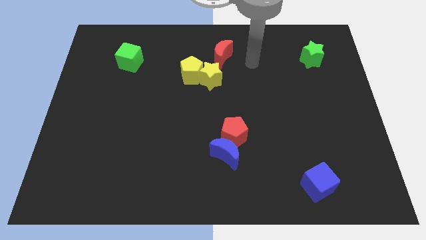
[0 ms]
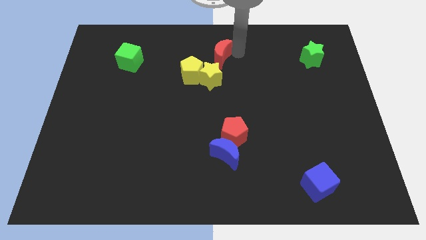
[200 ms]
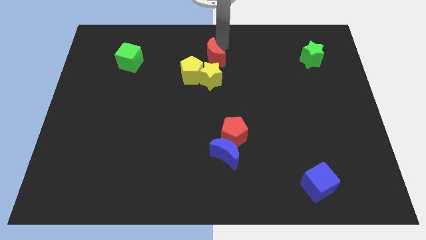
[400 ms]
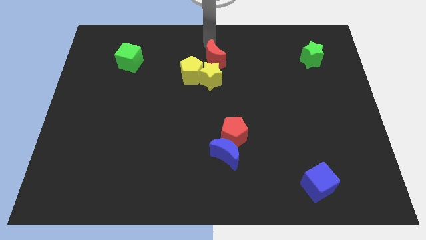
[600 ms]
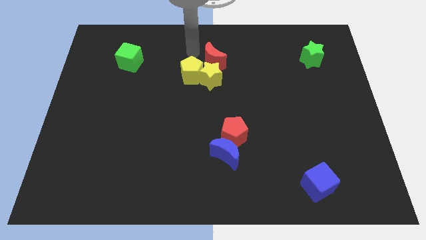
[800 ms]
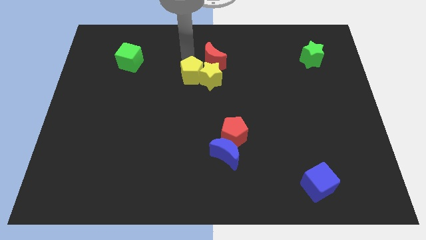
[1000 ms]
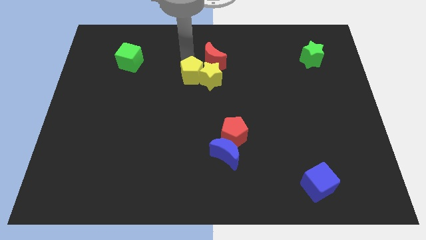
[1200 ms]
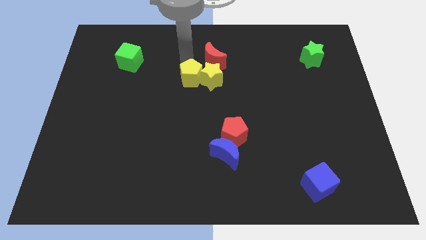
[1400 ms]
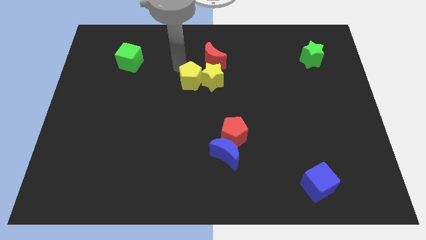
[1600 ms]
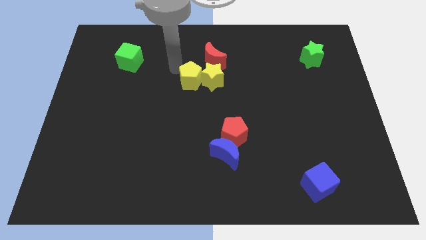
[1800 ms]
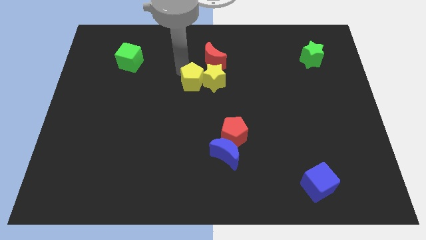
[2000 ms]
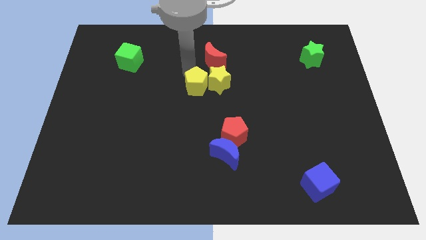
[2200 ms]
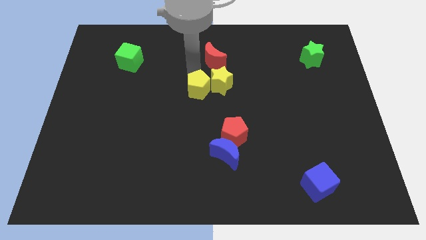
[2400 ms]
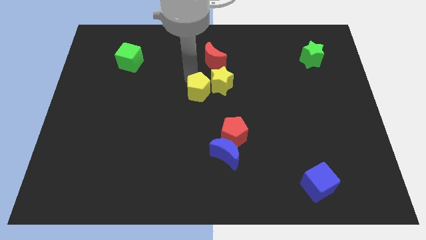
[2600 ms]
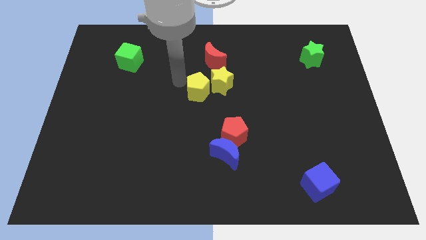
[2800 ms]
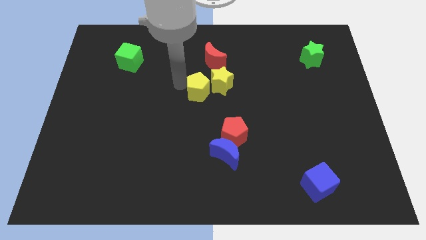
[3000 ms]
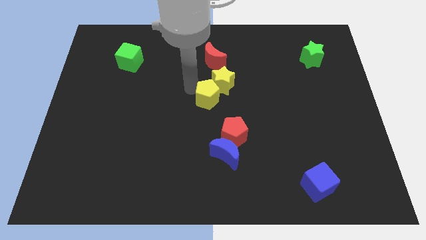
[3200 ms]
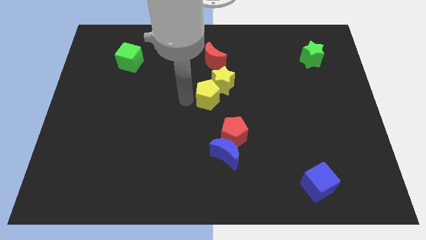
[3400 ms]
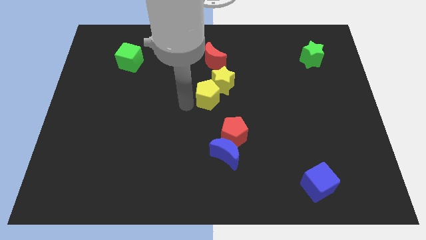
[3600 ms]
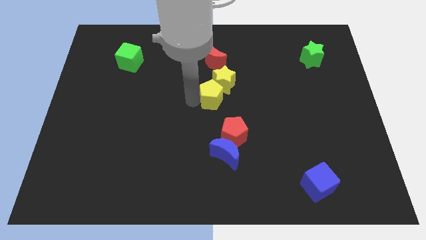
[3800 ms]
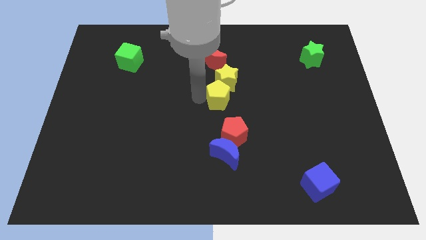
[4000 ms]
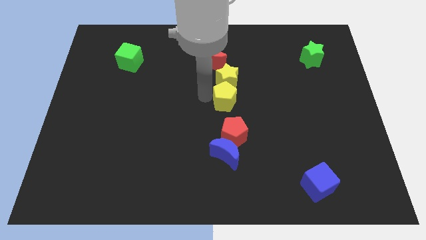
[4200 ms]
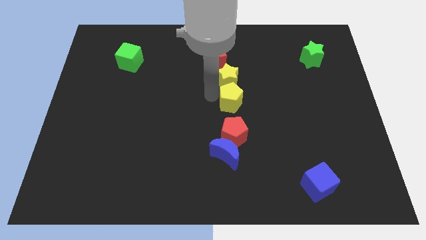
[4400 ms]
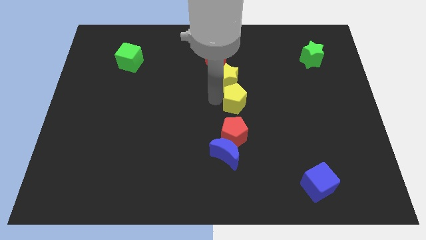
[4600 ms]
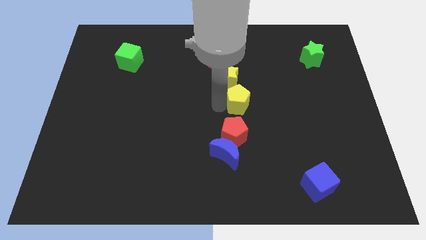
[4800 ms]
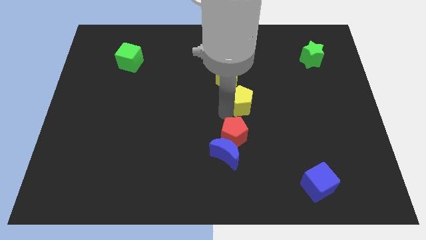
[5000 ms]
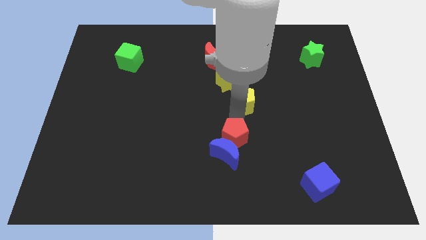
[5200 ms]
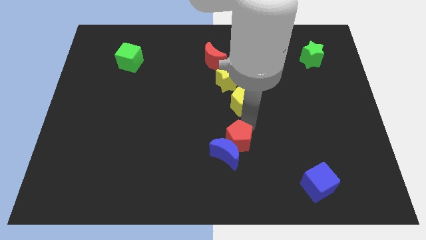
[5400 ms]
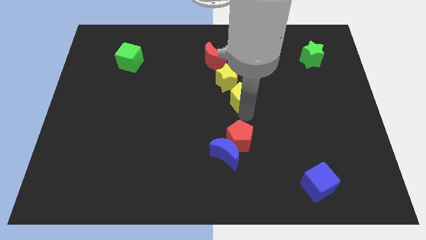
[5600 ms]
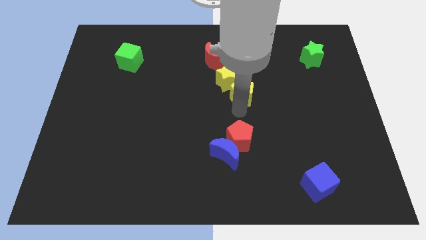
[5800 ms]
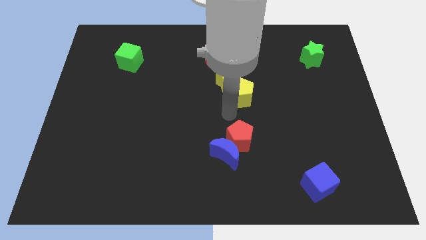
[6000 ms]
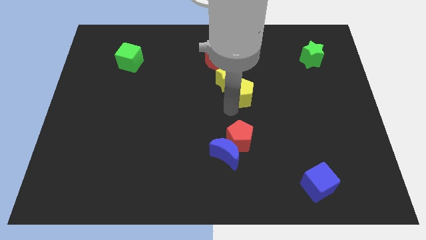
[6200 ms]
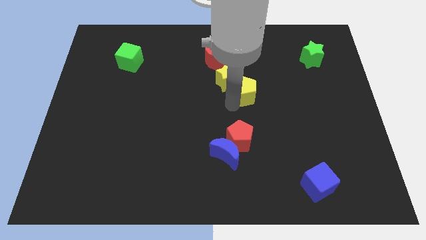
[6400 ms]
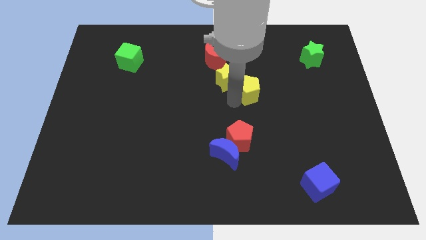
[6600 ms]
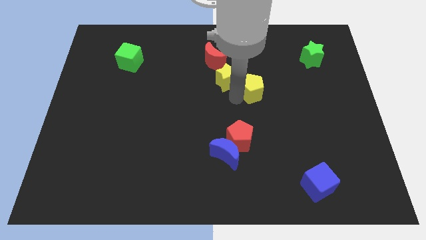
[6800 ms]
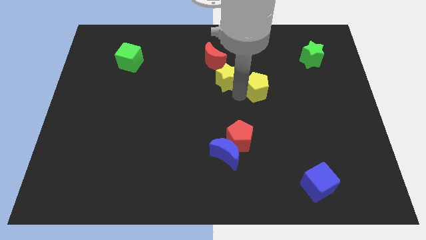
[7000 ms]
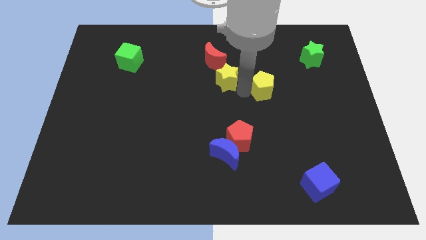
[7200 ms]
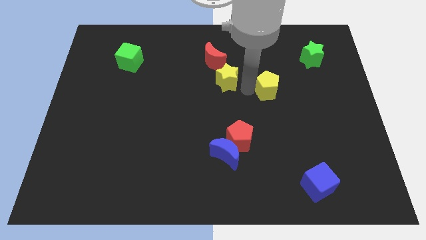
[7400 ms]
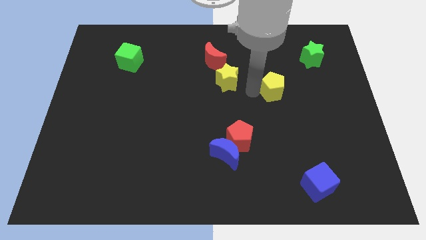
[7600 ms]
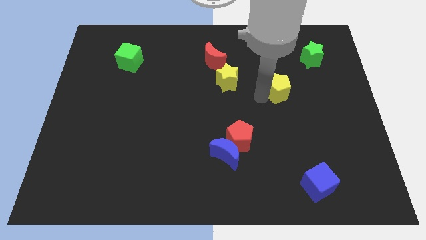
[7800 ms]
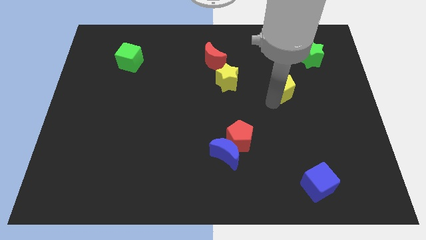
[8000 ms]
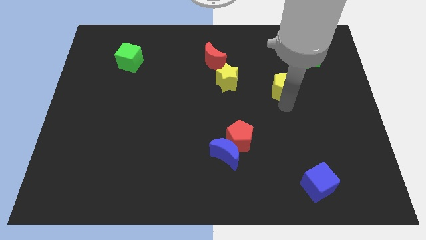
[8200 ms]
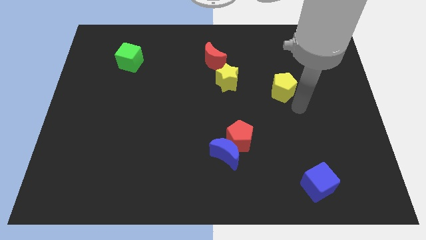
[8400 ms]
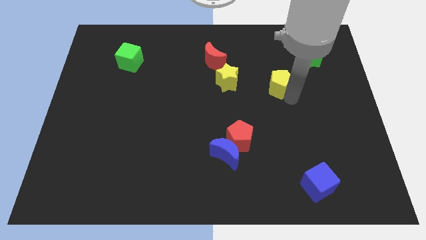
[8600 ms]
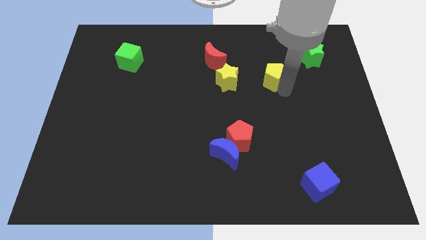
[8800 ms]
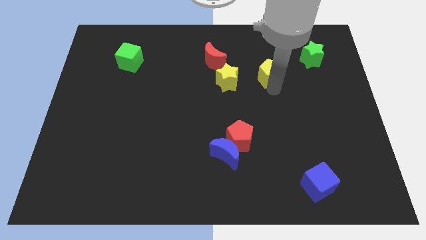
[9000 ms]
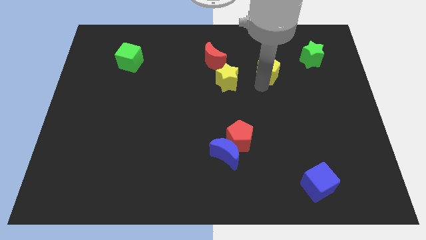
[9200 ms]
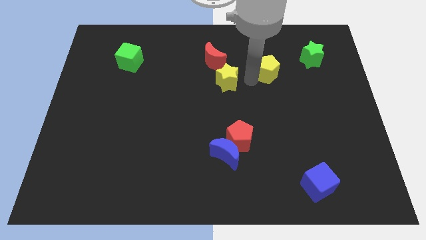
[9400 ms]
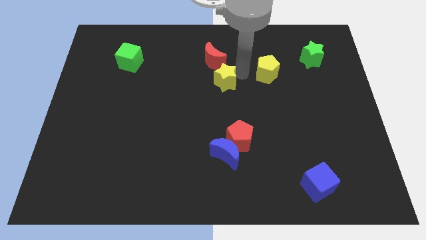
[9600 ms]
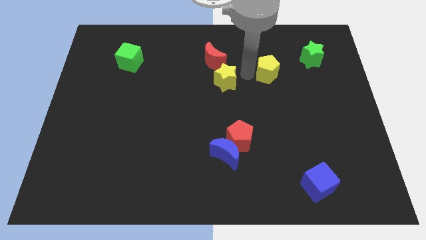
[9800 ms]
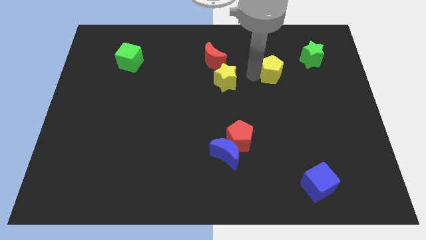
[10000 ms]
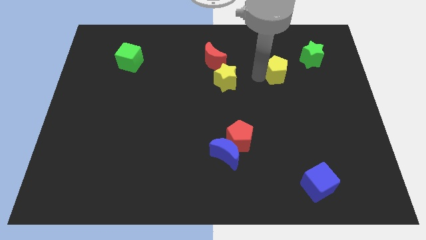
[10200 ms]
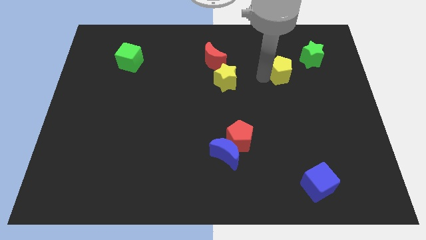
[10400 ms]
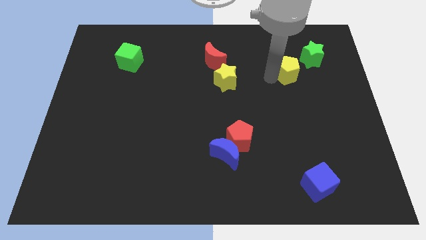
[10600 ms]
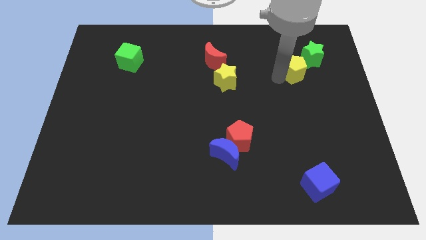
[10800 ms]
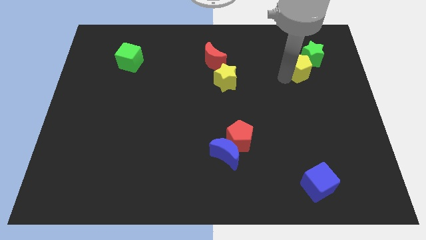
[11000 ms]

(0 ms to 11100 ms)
slide the yellow pentagon to the green star

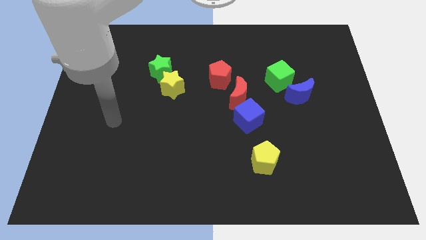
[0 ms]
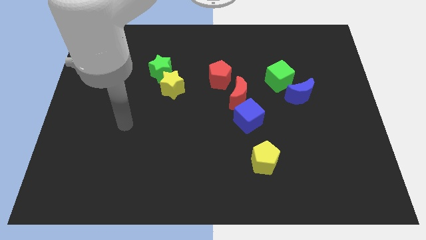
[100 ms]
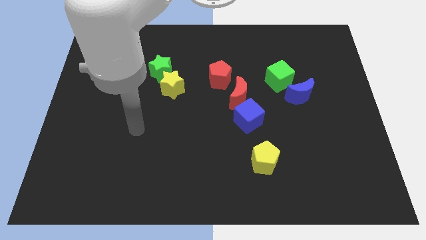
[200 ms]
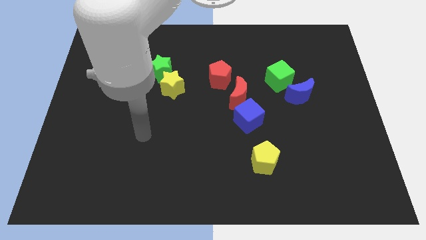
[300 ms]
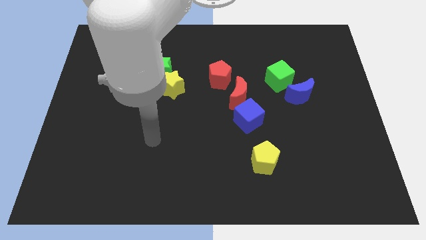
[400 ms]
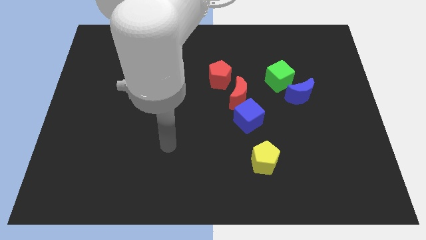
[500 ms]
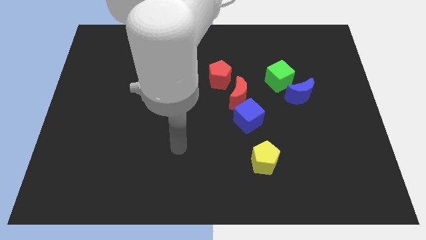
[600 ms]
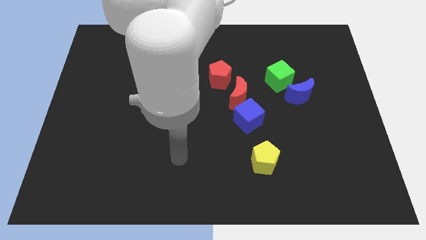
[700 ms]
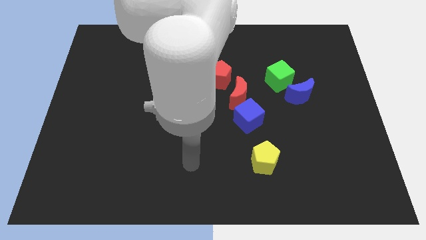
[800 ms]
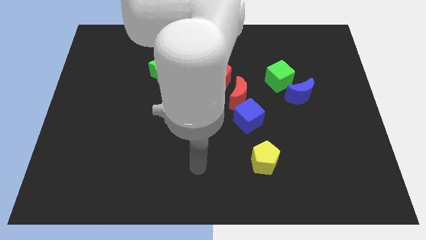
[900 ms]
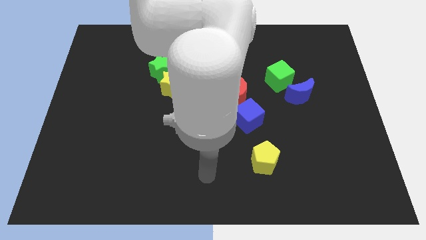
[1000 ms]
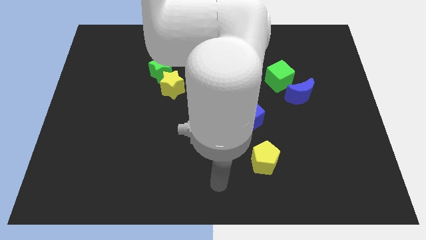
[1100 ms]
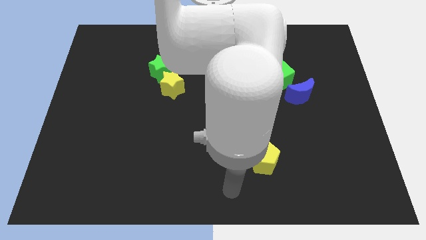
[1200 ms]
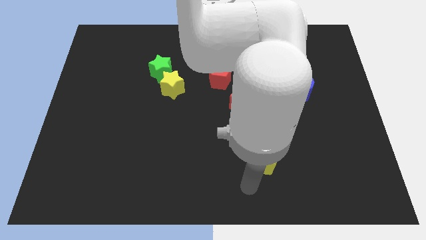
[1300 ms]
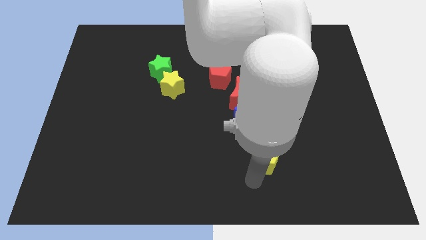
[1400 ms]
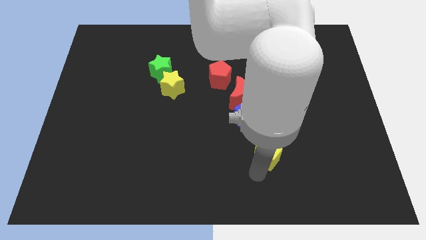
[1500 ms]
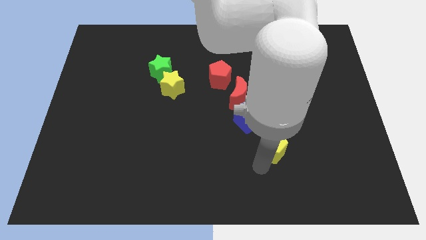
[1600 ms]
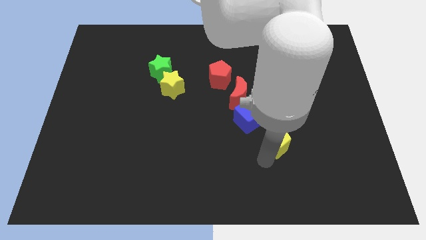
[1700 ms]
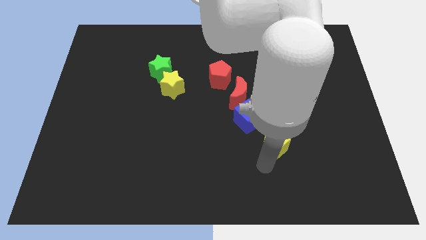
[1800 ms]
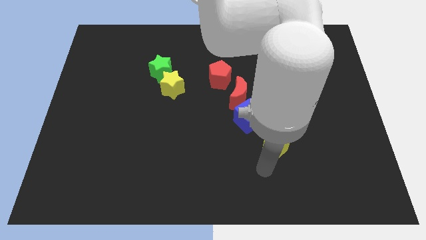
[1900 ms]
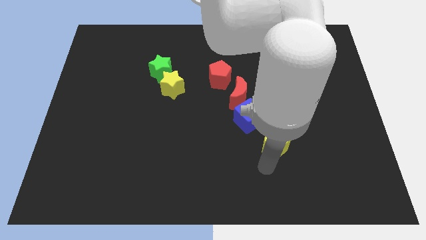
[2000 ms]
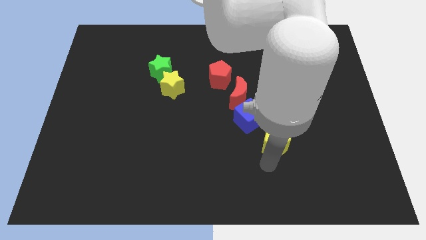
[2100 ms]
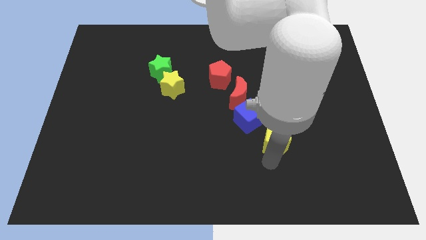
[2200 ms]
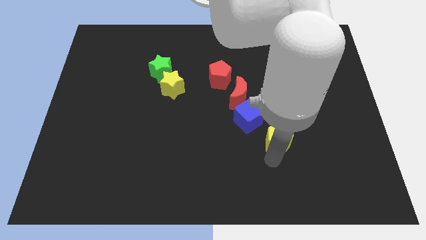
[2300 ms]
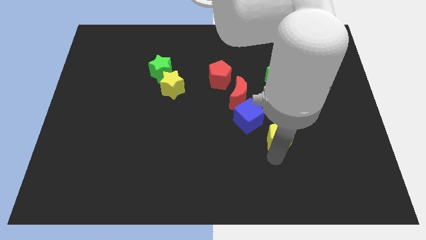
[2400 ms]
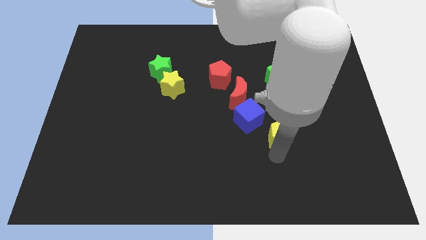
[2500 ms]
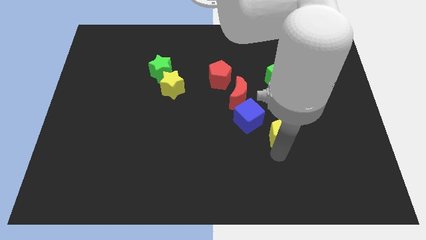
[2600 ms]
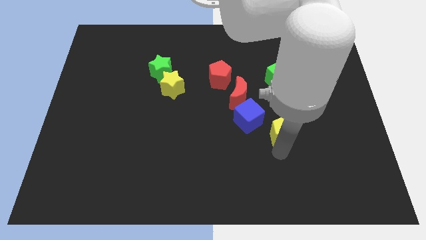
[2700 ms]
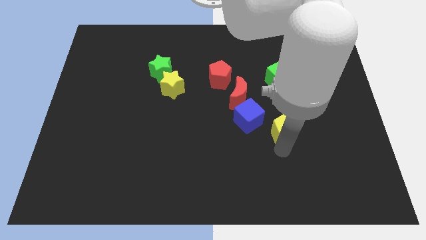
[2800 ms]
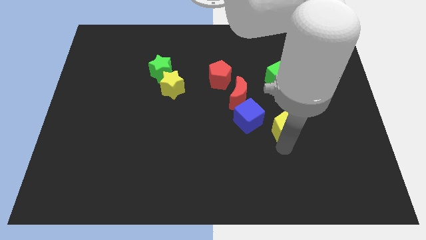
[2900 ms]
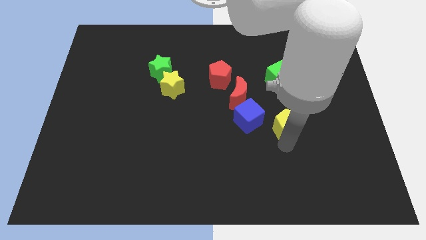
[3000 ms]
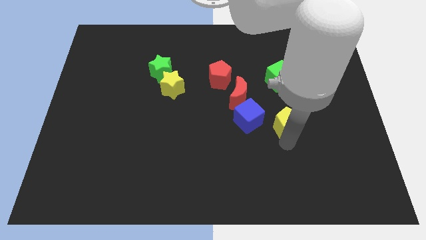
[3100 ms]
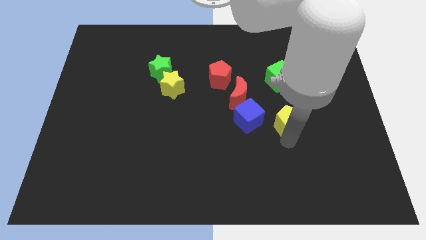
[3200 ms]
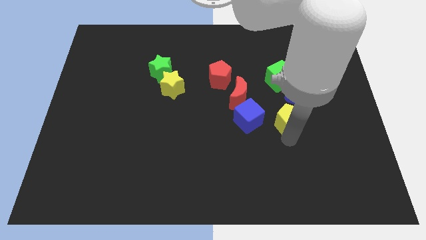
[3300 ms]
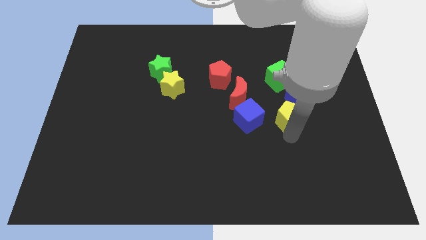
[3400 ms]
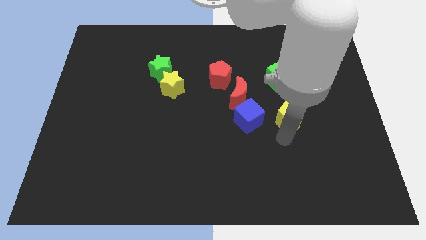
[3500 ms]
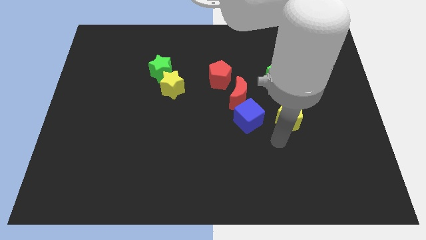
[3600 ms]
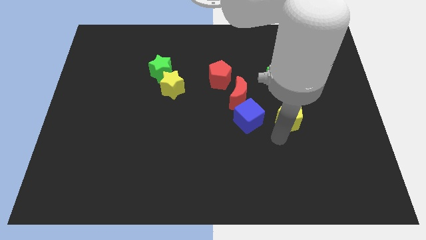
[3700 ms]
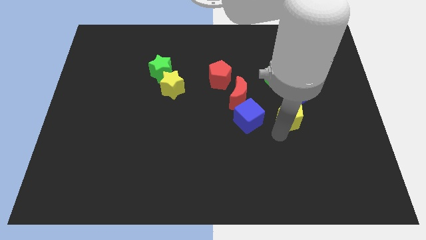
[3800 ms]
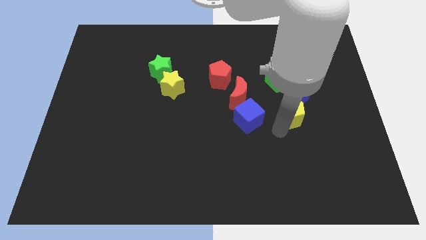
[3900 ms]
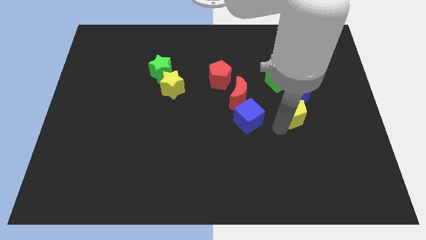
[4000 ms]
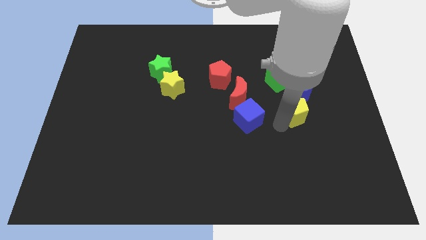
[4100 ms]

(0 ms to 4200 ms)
push the yellow pentagon to the blue moon
